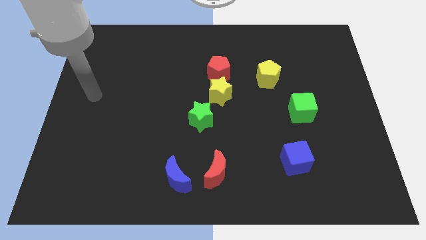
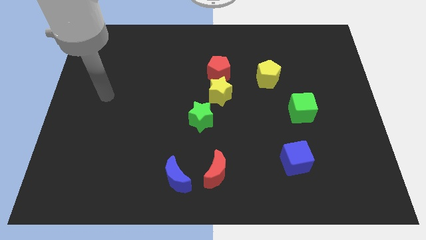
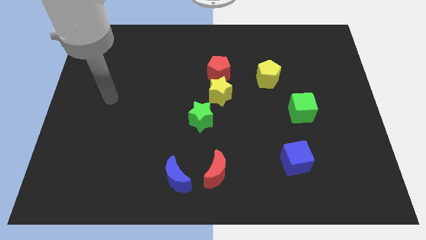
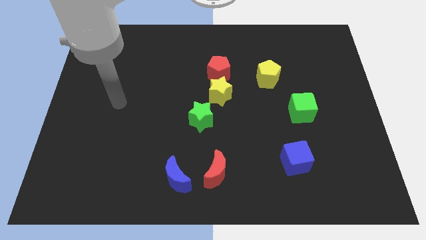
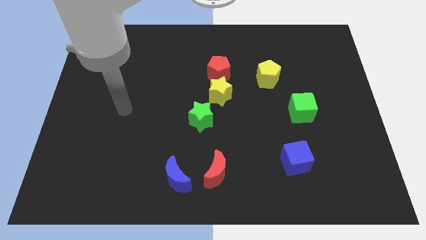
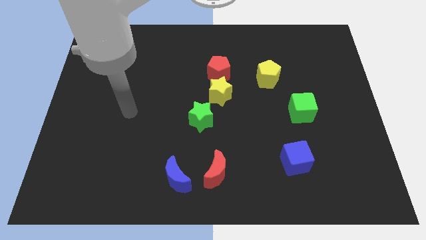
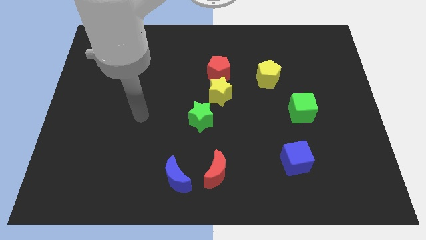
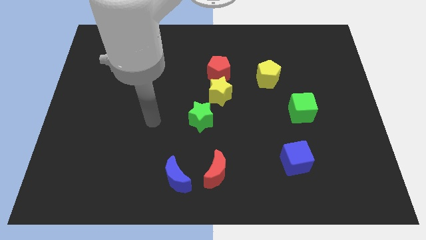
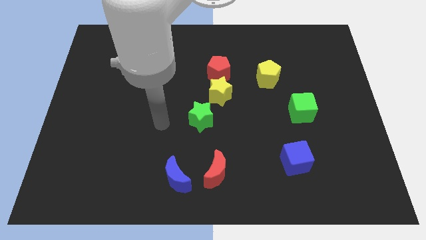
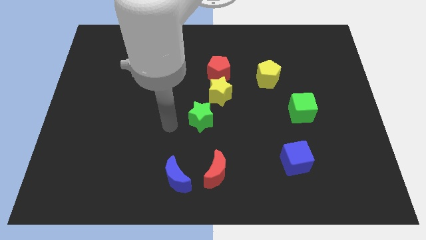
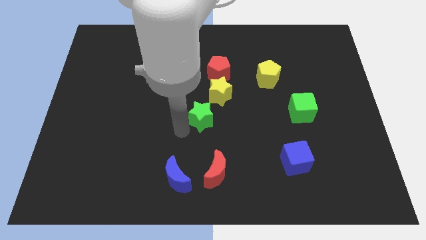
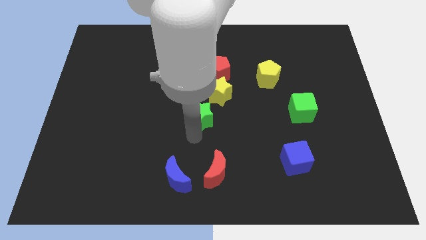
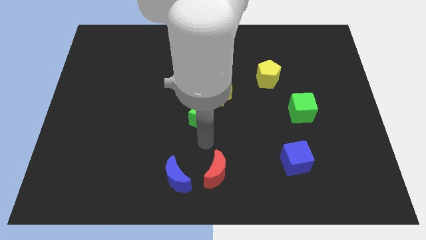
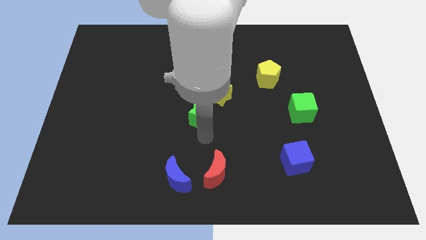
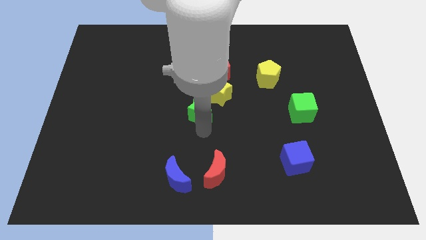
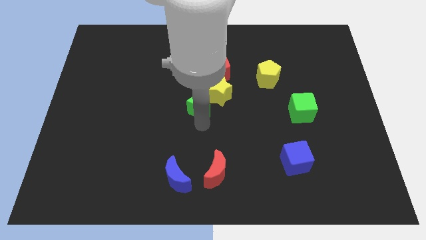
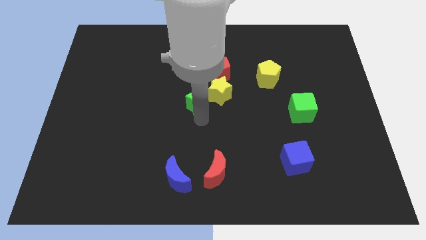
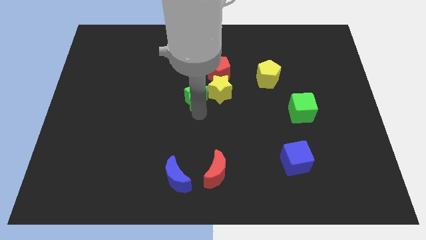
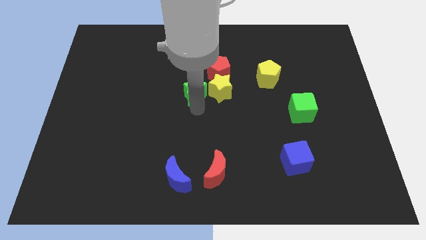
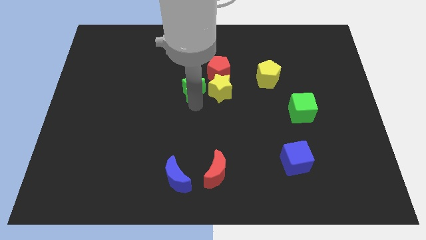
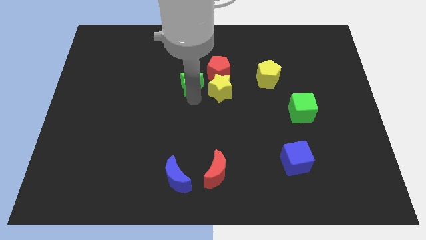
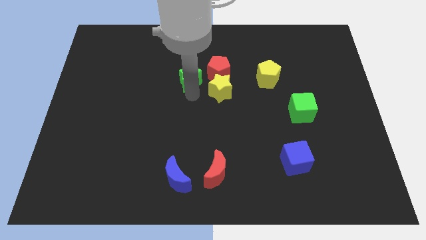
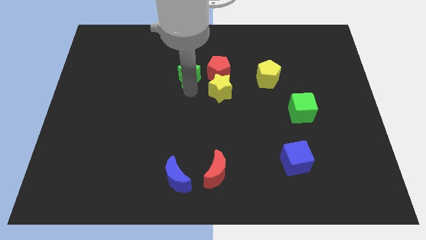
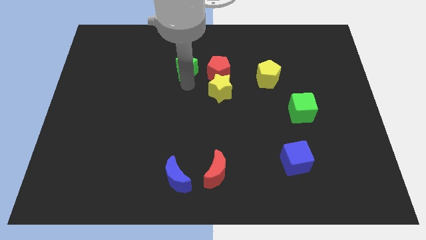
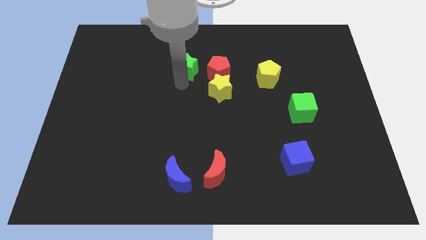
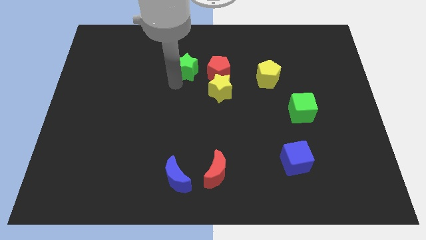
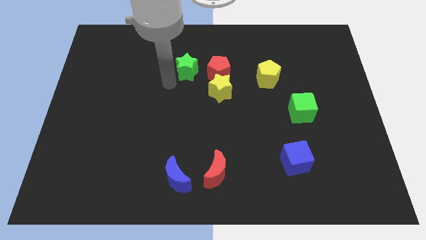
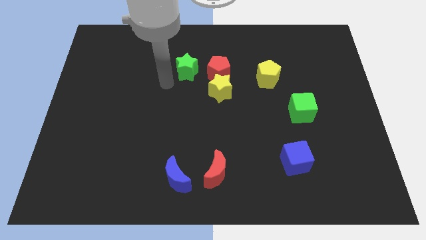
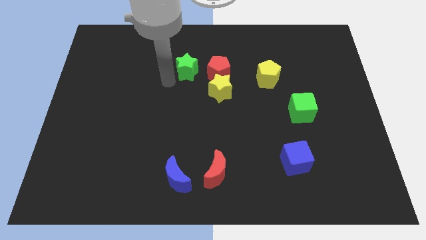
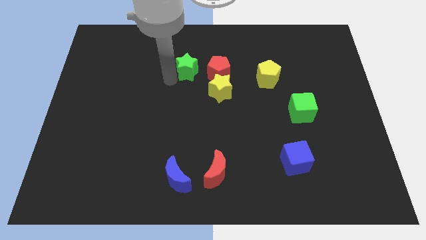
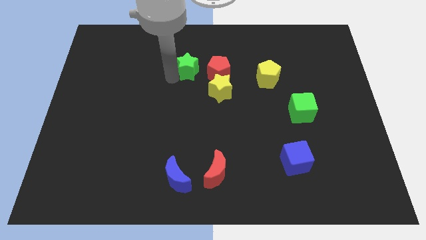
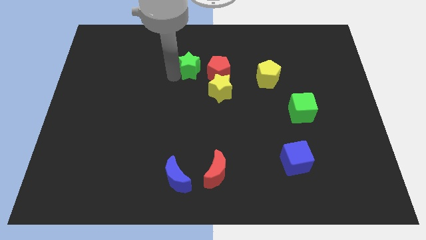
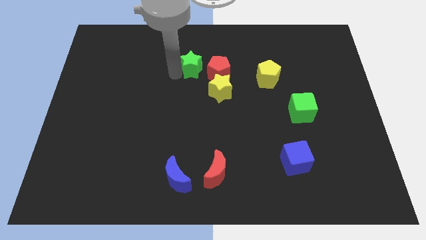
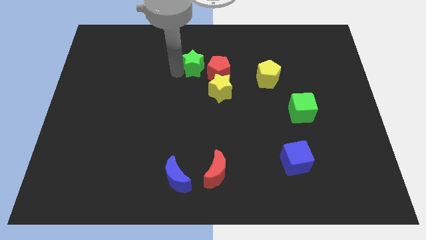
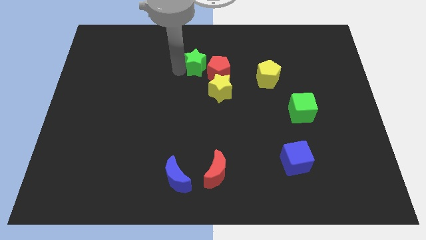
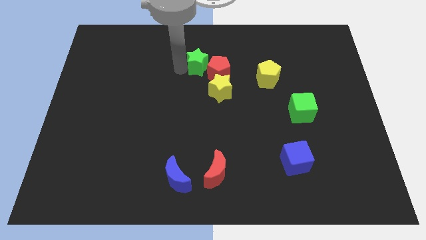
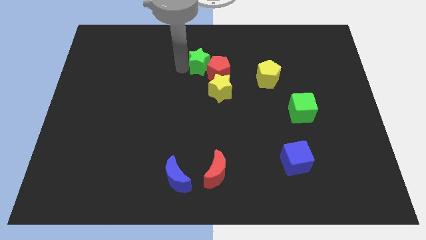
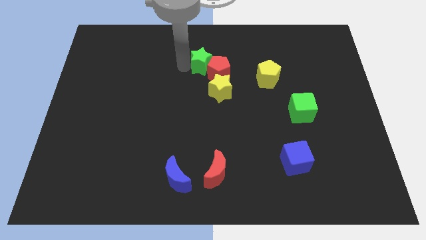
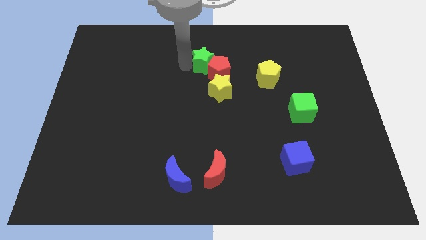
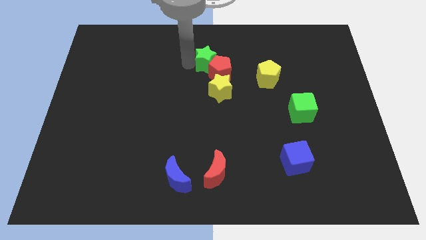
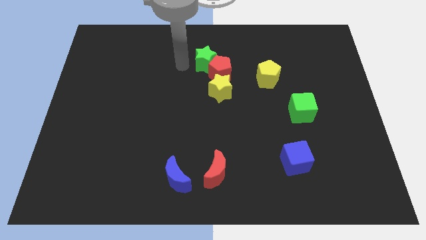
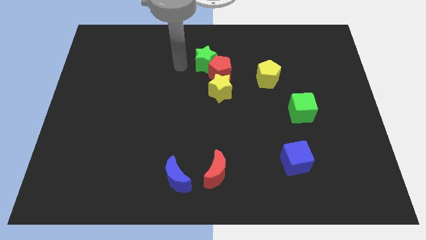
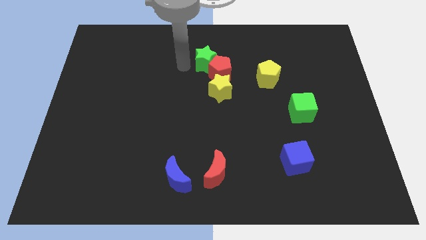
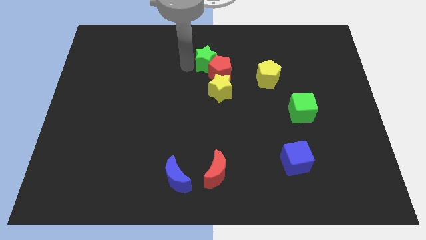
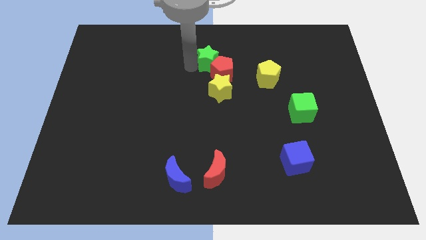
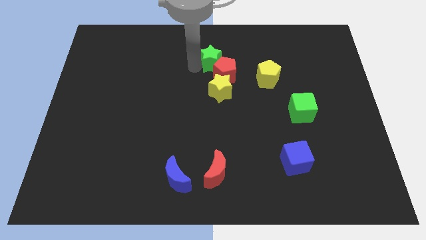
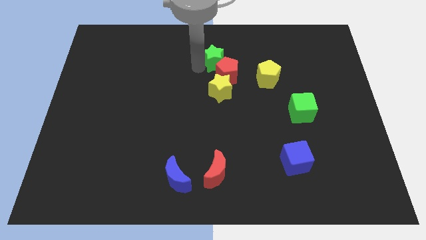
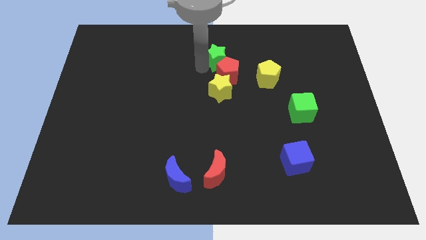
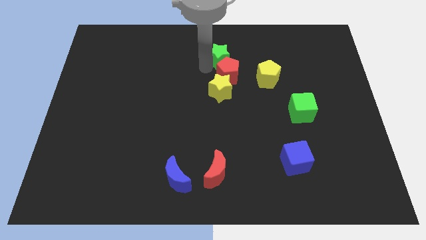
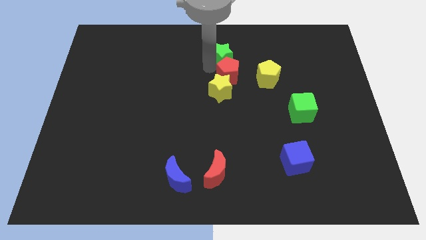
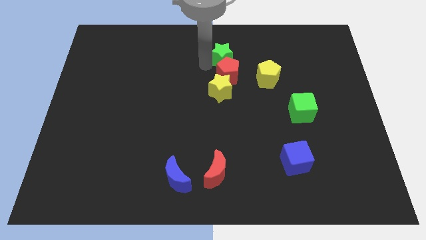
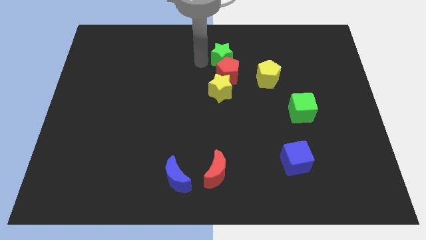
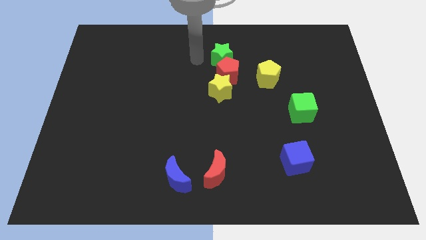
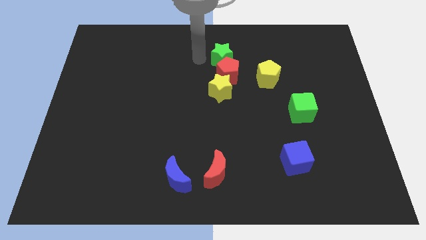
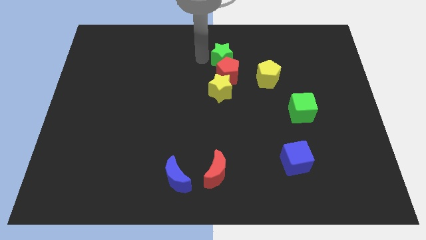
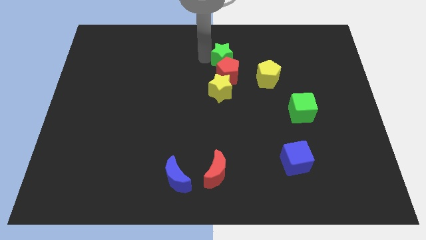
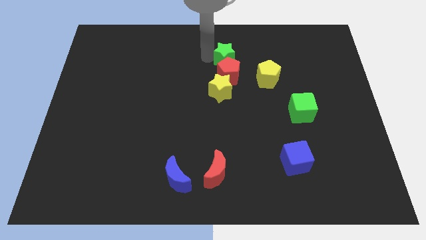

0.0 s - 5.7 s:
push the green star to the top right side of the red pentagon

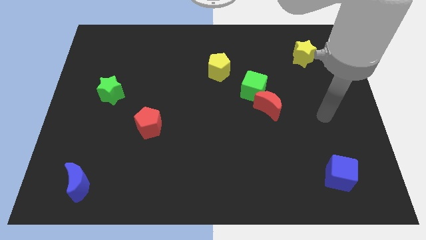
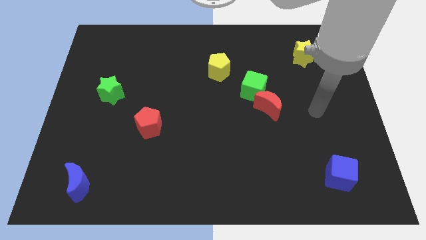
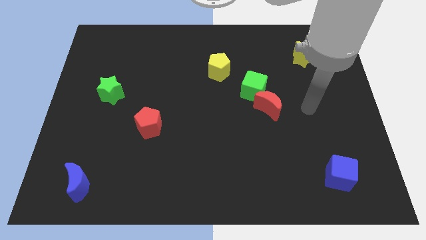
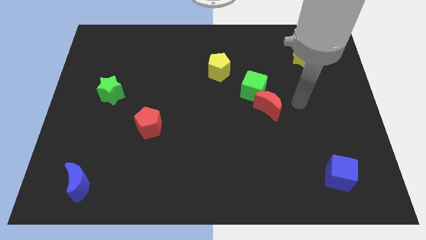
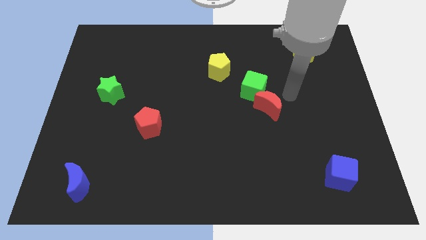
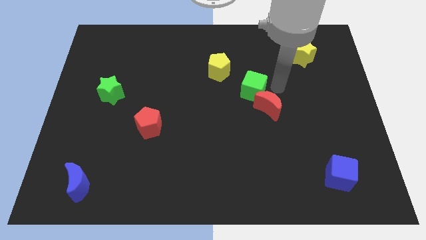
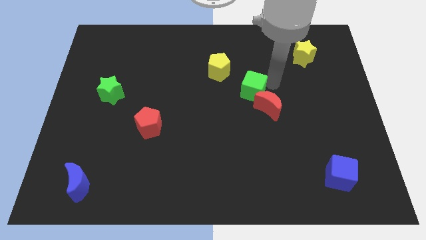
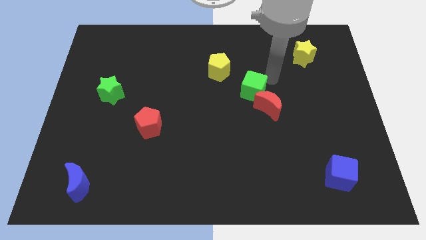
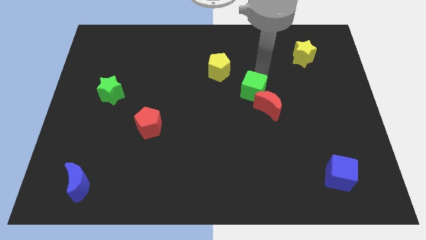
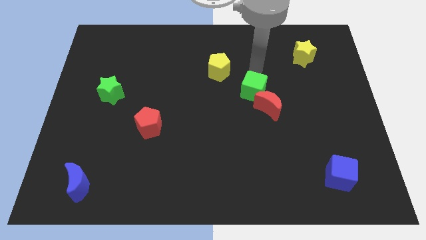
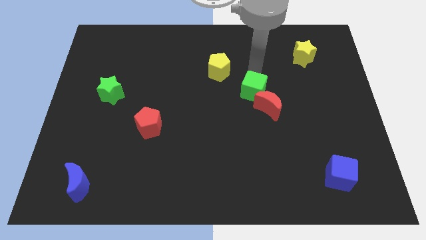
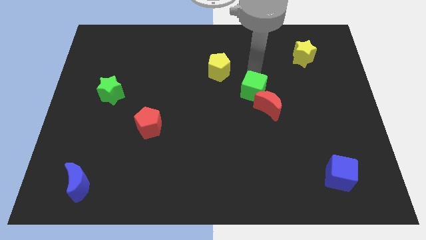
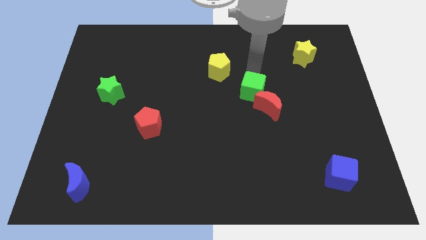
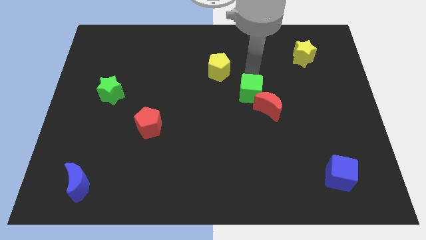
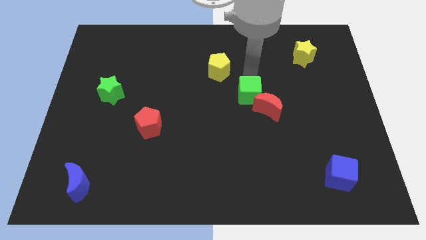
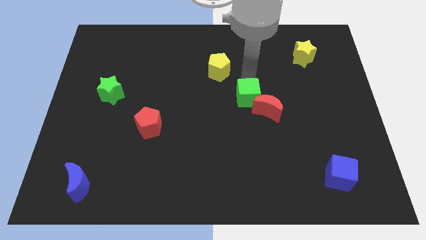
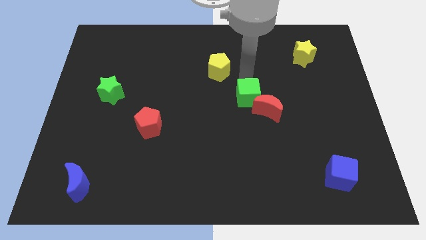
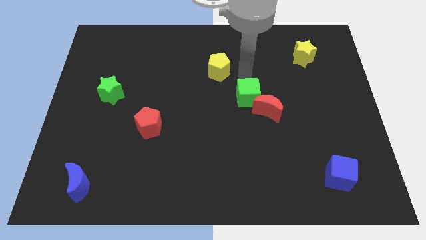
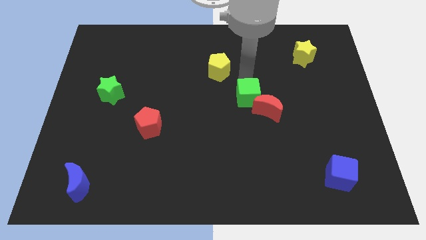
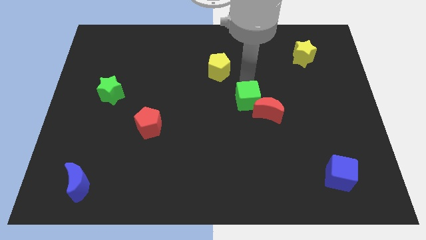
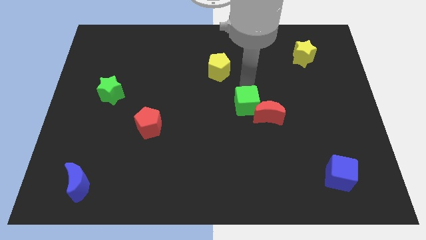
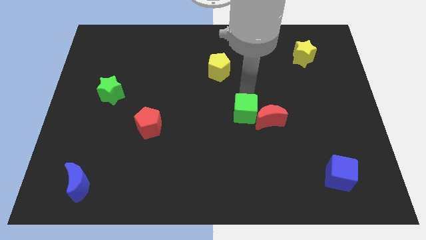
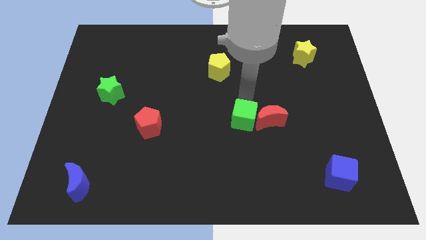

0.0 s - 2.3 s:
push the green cube to the bottom left of the red moon
